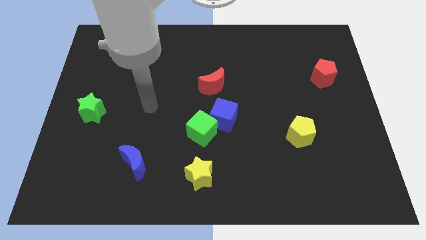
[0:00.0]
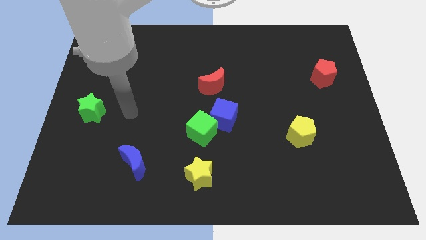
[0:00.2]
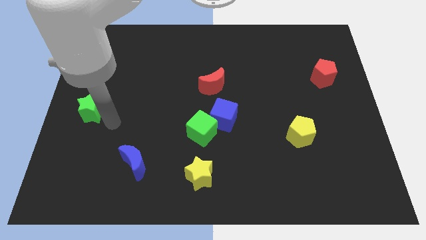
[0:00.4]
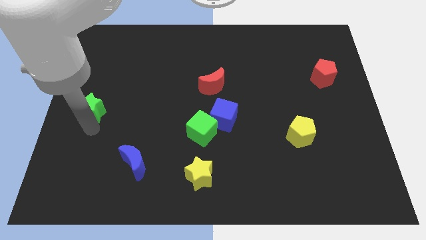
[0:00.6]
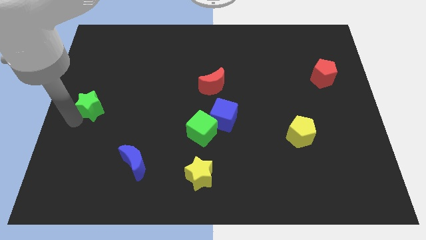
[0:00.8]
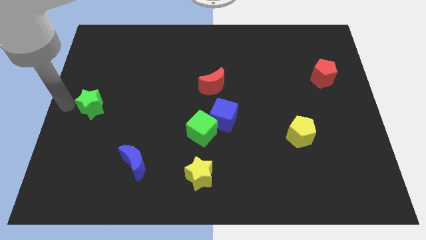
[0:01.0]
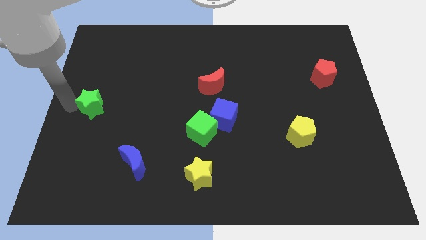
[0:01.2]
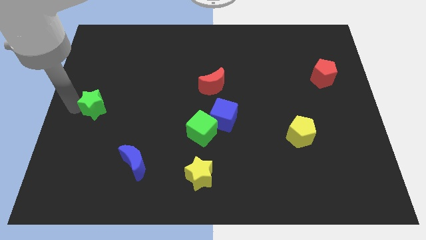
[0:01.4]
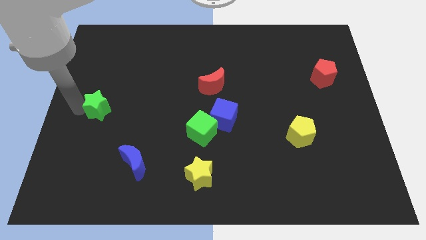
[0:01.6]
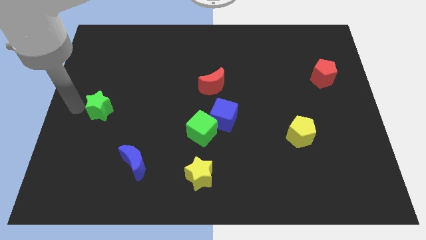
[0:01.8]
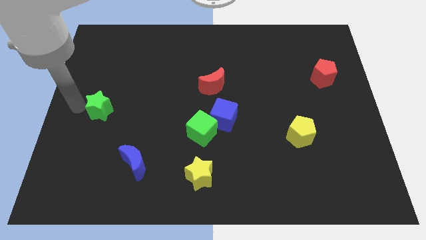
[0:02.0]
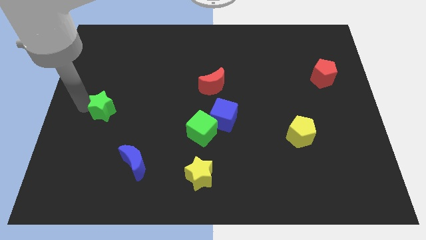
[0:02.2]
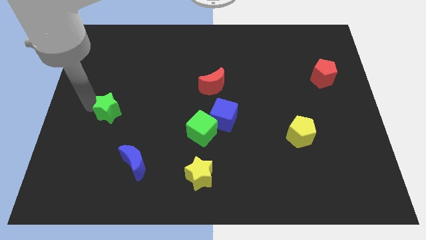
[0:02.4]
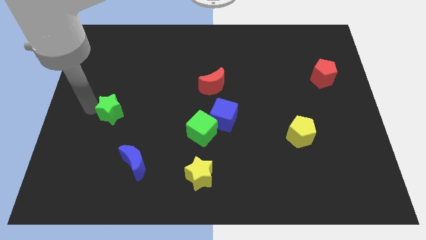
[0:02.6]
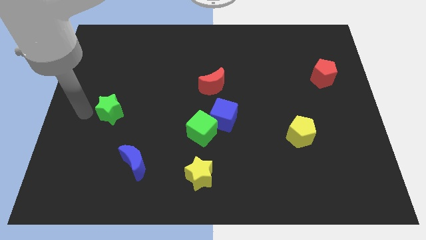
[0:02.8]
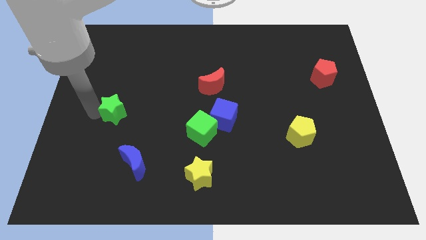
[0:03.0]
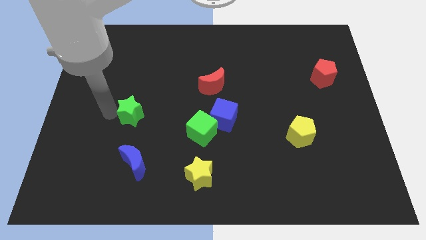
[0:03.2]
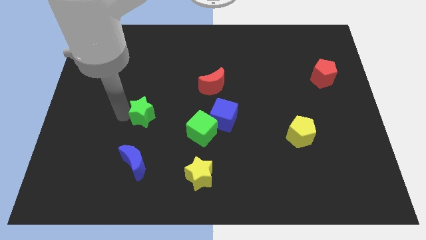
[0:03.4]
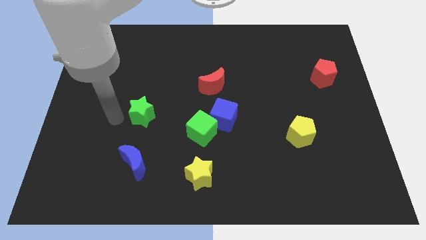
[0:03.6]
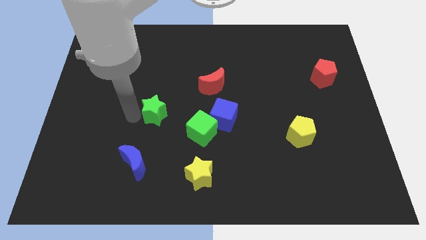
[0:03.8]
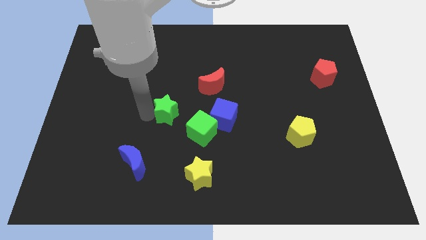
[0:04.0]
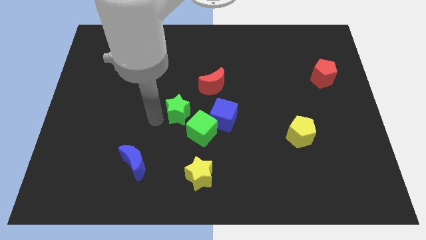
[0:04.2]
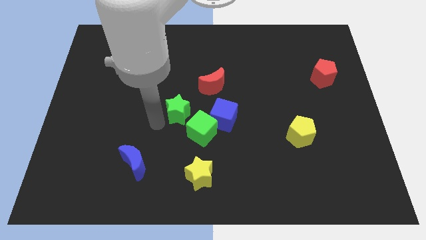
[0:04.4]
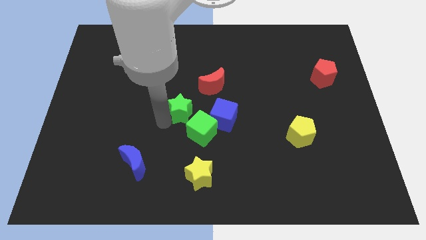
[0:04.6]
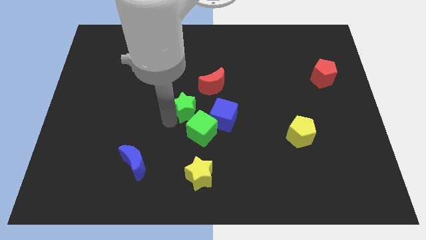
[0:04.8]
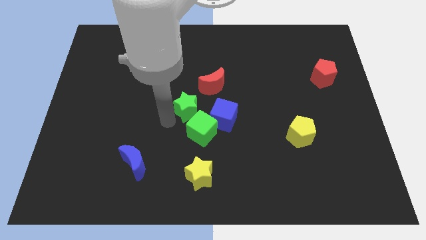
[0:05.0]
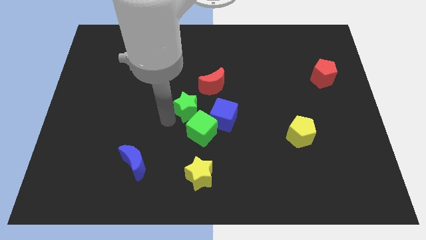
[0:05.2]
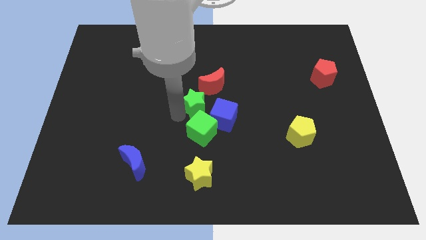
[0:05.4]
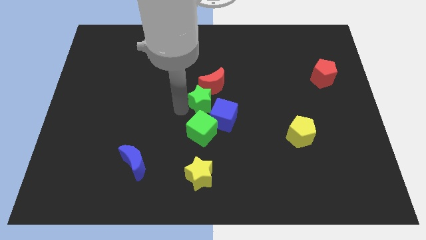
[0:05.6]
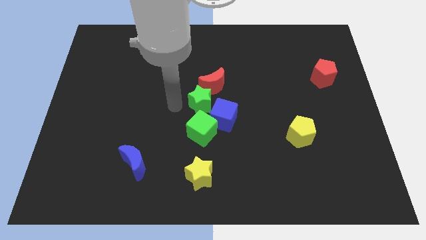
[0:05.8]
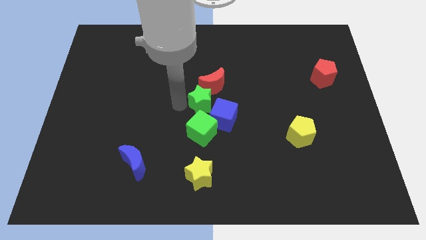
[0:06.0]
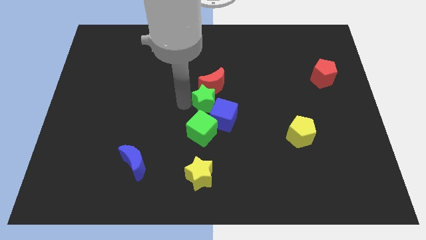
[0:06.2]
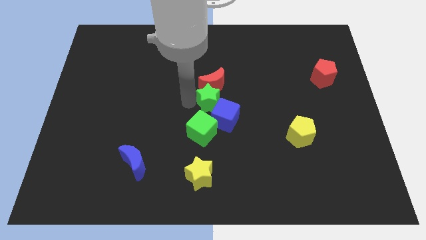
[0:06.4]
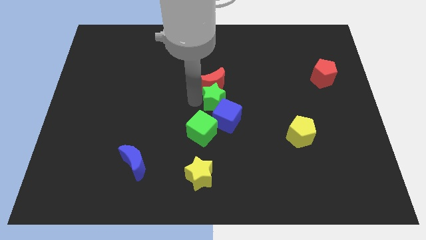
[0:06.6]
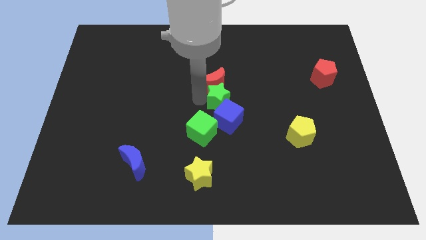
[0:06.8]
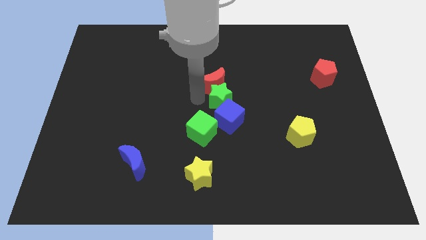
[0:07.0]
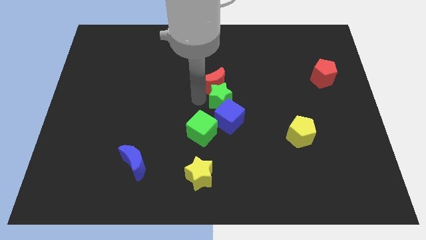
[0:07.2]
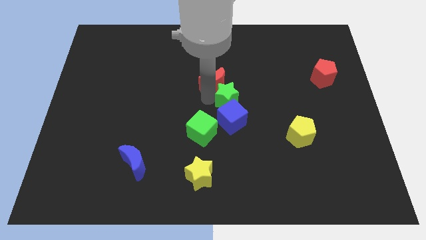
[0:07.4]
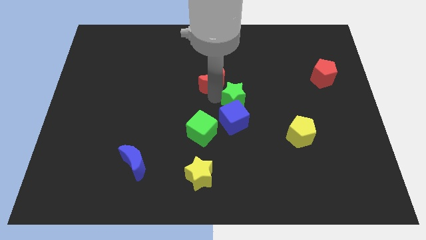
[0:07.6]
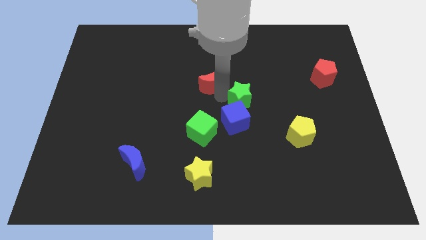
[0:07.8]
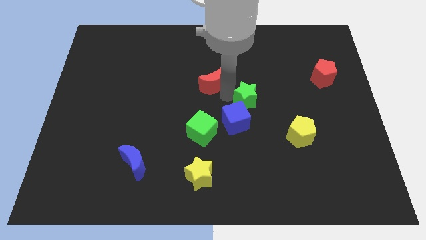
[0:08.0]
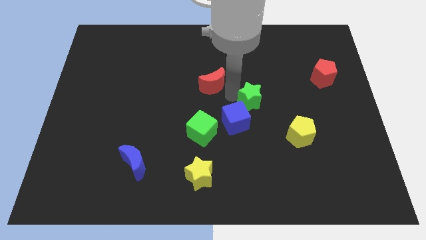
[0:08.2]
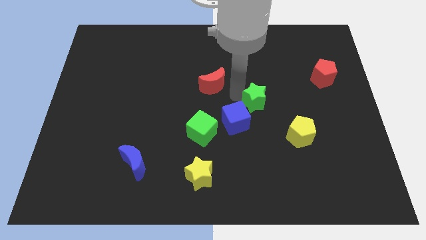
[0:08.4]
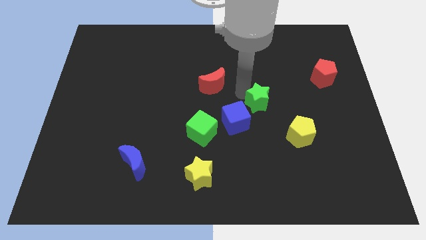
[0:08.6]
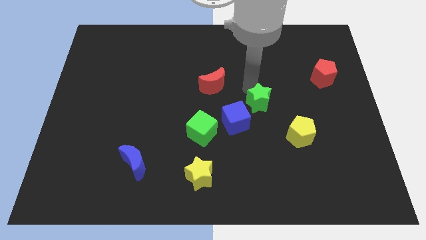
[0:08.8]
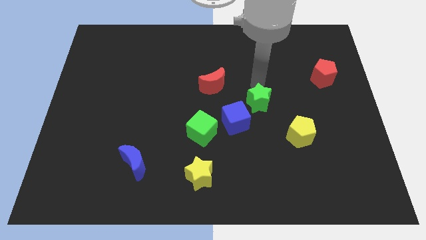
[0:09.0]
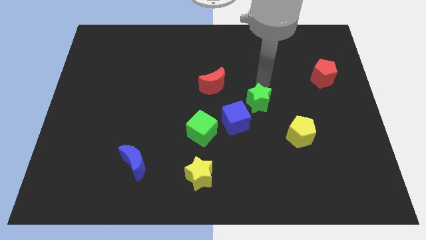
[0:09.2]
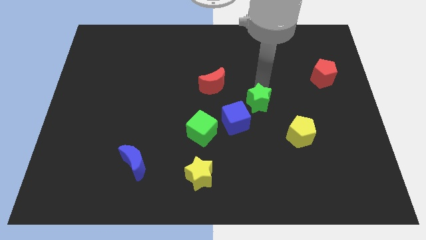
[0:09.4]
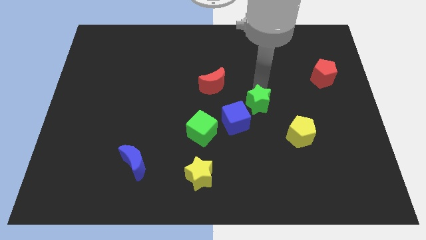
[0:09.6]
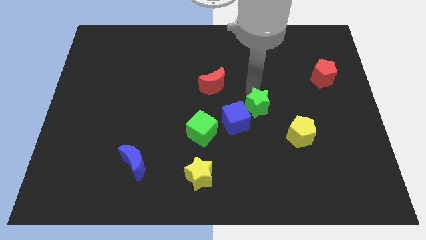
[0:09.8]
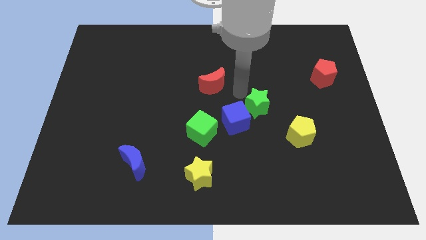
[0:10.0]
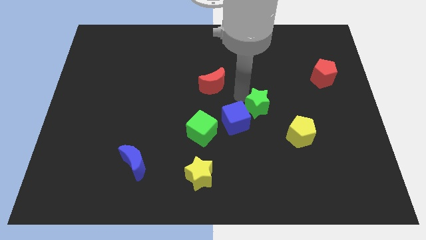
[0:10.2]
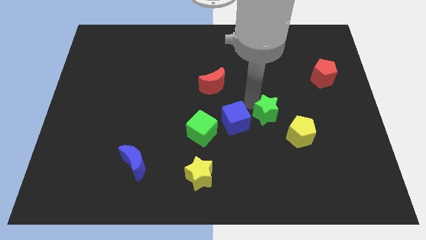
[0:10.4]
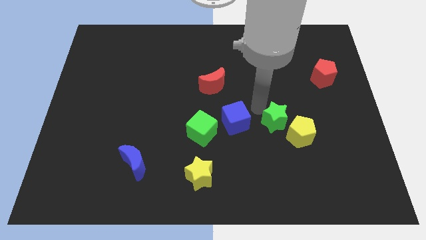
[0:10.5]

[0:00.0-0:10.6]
put the green star towards the yellow pentagon

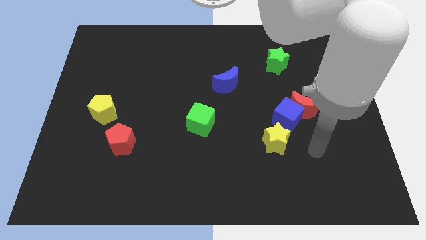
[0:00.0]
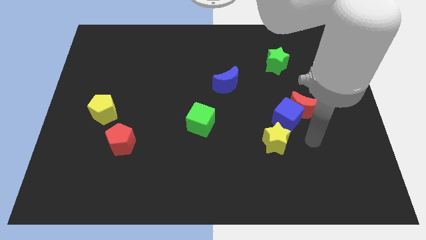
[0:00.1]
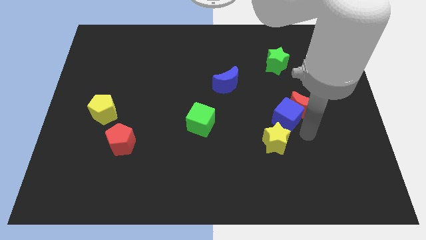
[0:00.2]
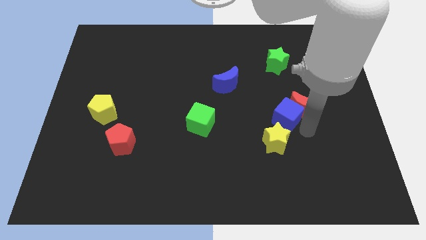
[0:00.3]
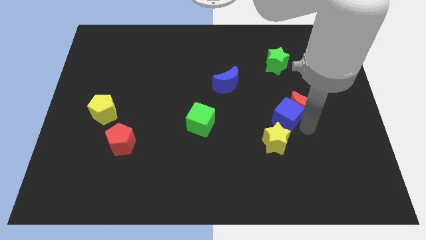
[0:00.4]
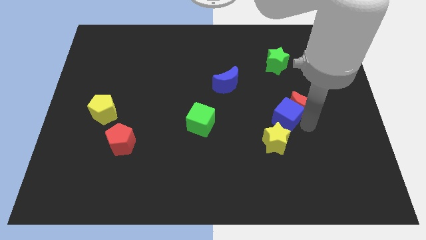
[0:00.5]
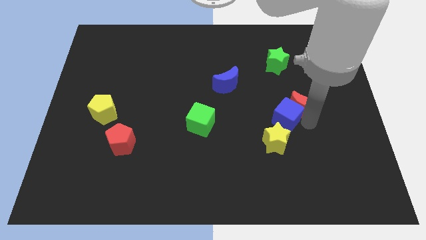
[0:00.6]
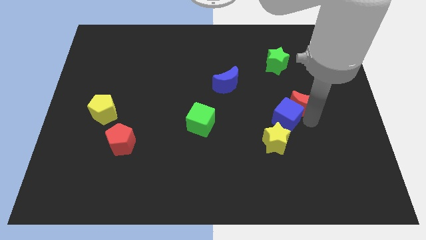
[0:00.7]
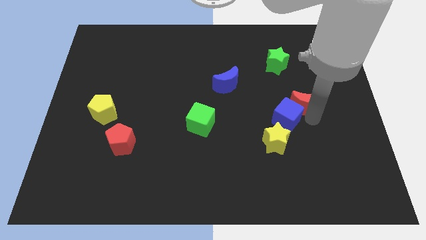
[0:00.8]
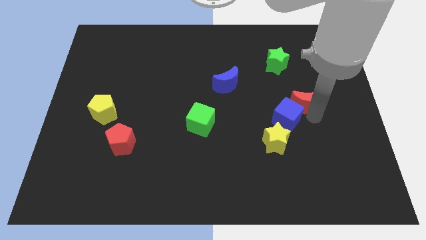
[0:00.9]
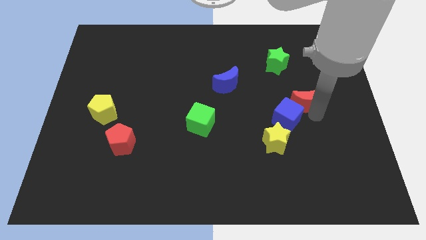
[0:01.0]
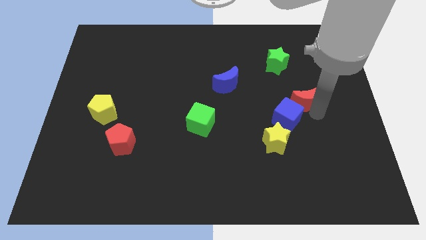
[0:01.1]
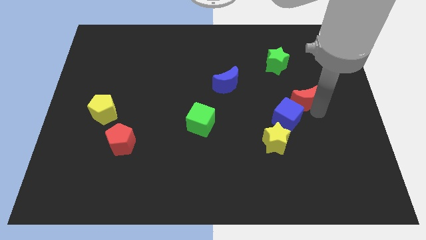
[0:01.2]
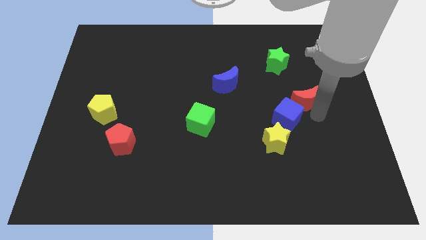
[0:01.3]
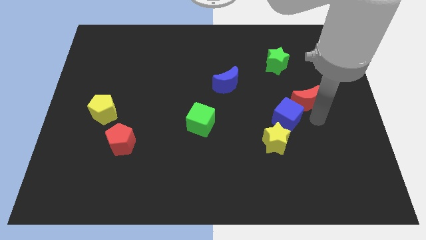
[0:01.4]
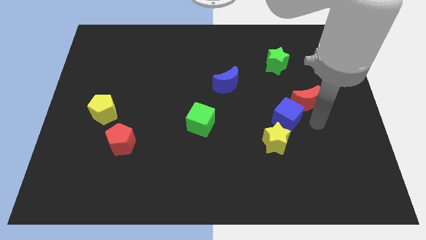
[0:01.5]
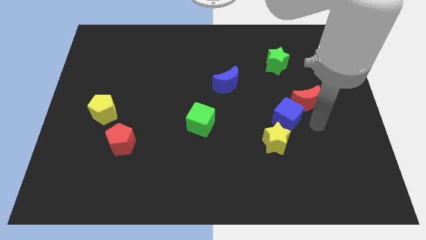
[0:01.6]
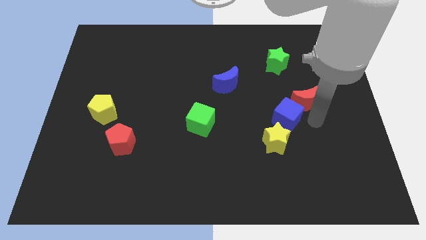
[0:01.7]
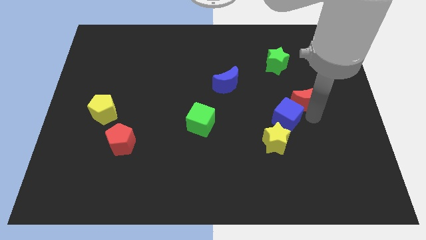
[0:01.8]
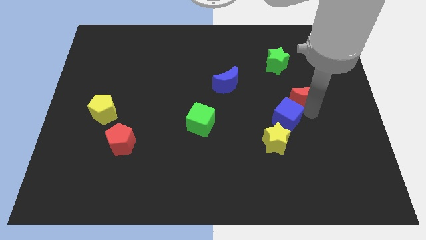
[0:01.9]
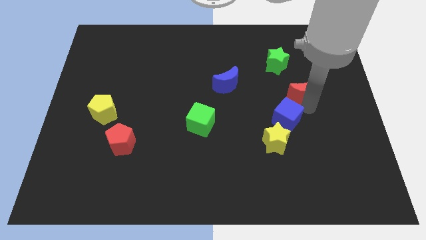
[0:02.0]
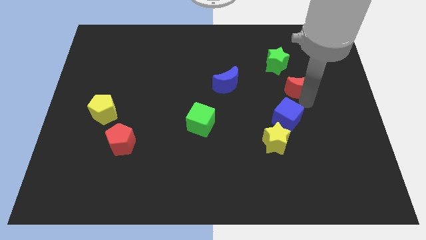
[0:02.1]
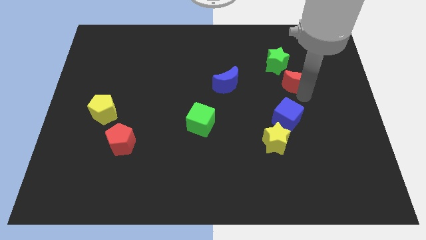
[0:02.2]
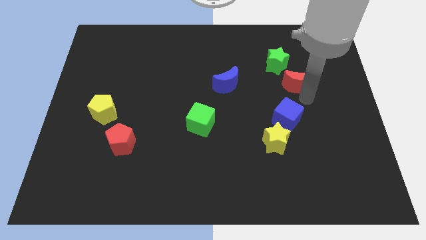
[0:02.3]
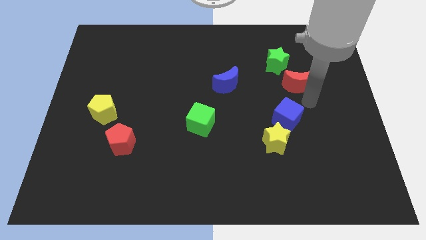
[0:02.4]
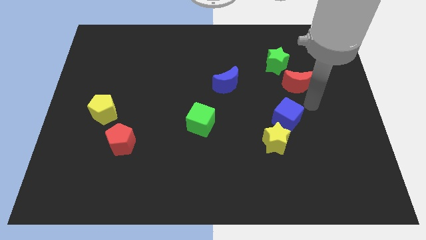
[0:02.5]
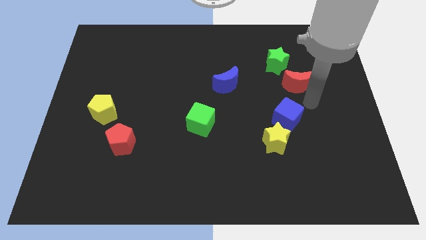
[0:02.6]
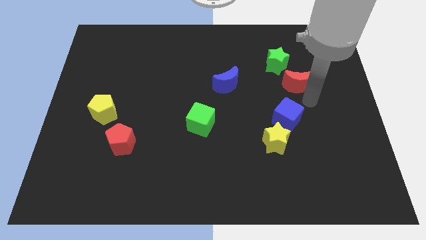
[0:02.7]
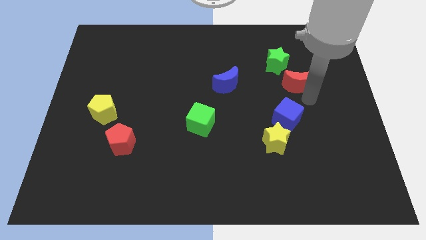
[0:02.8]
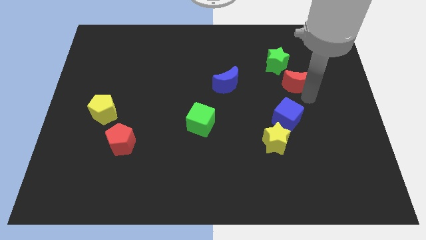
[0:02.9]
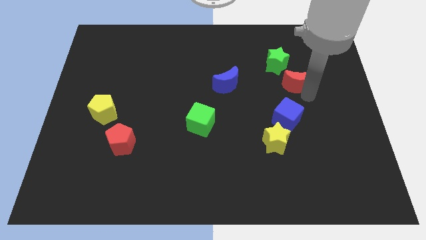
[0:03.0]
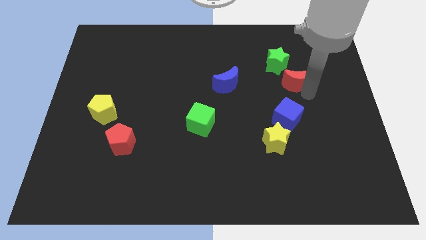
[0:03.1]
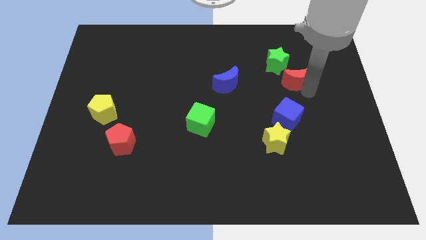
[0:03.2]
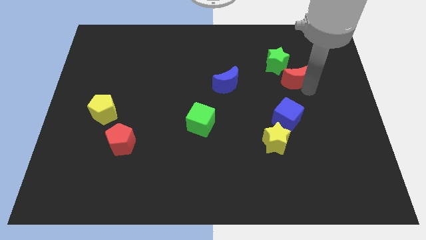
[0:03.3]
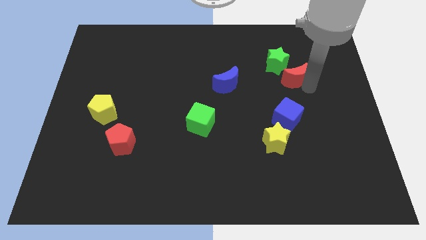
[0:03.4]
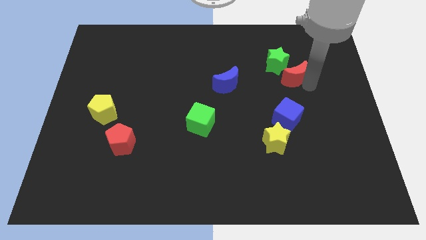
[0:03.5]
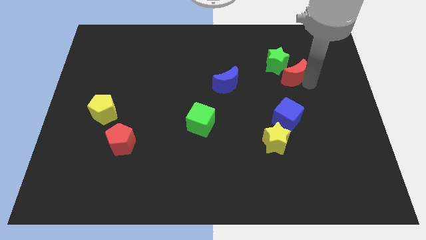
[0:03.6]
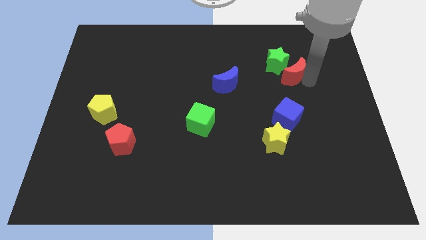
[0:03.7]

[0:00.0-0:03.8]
move the red moon to the green star
